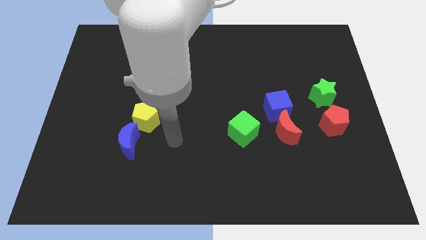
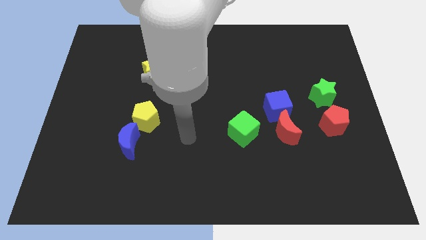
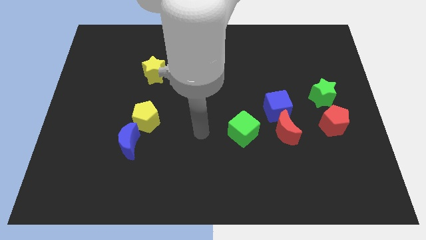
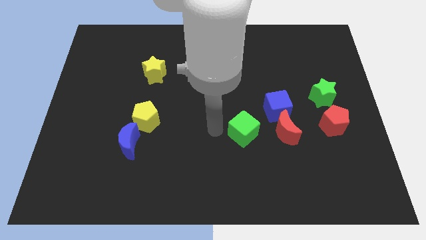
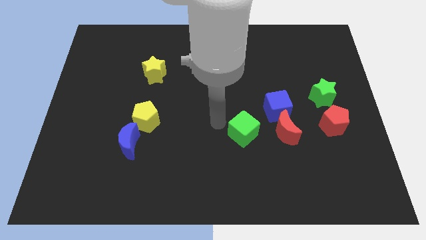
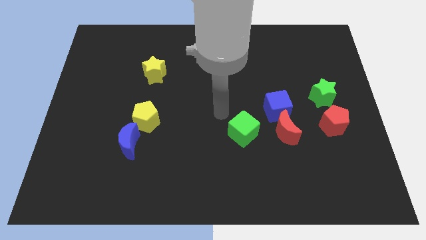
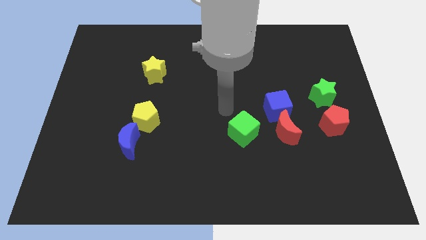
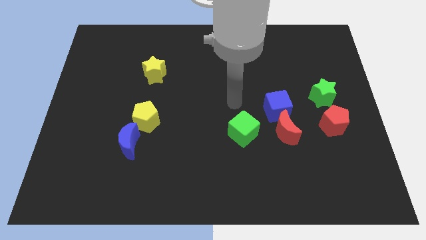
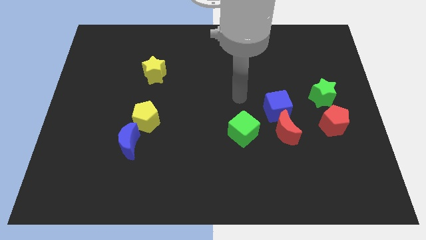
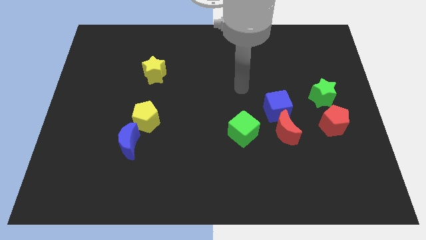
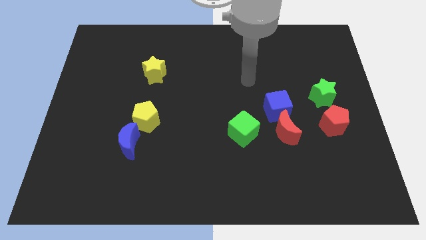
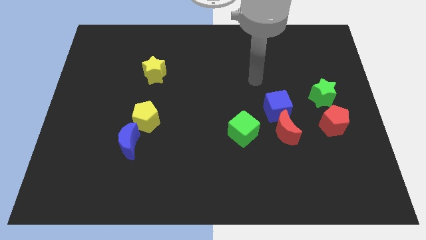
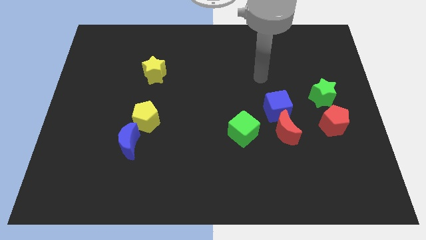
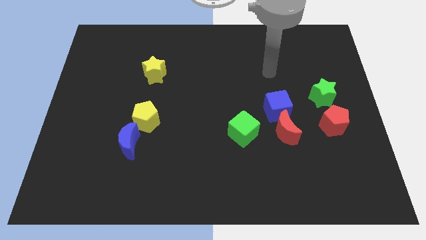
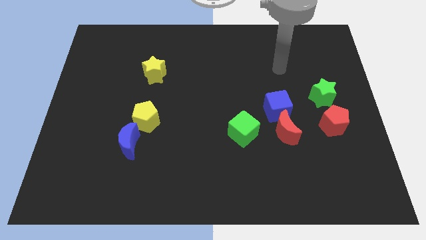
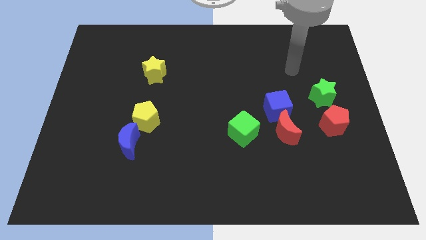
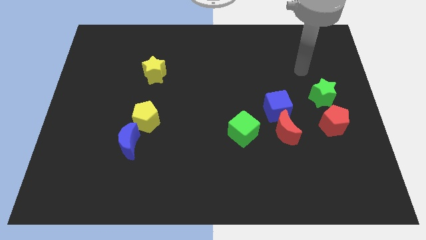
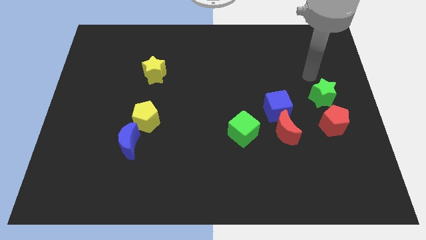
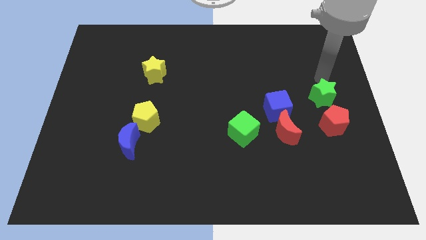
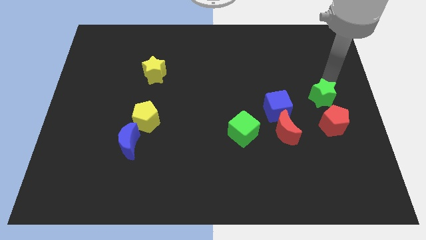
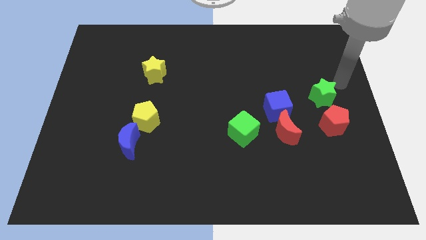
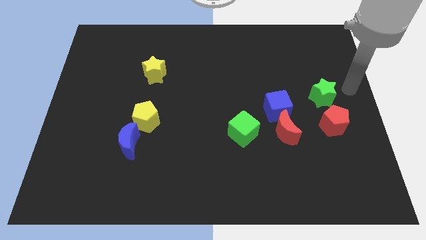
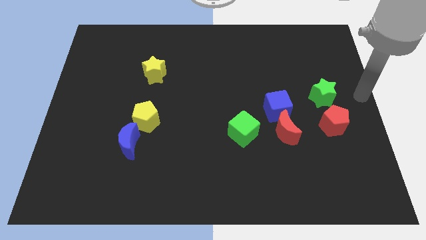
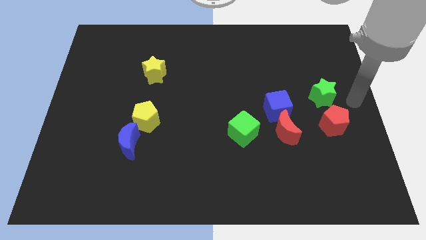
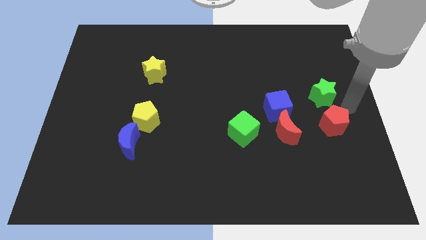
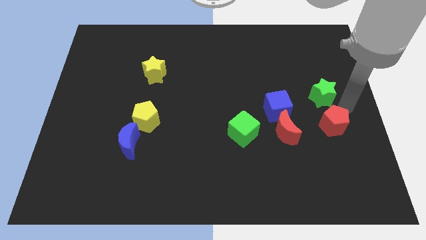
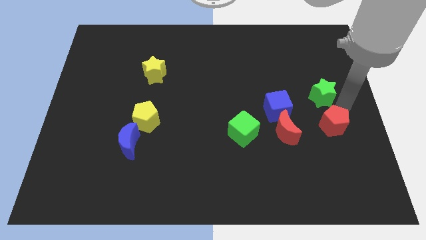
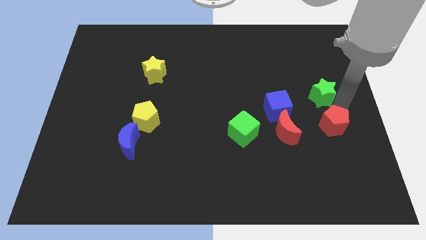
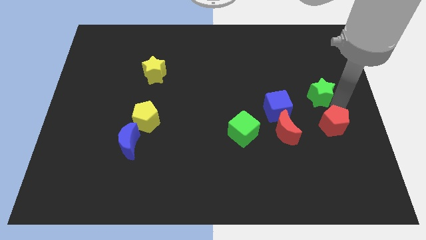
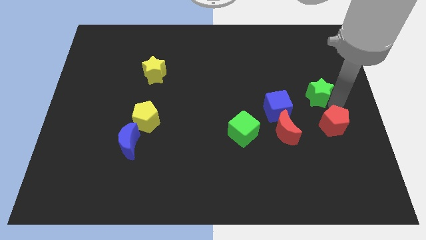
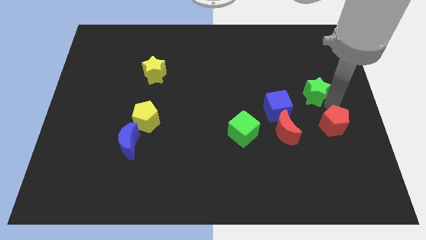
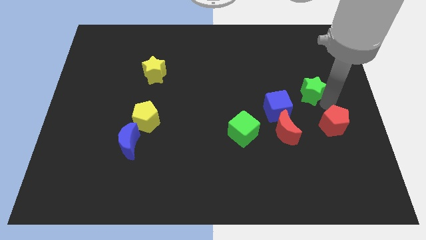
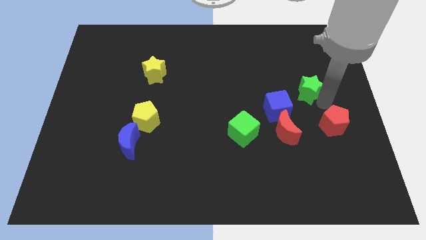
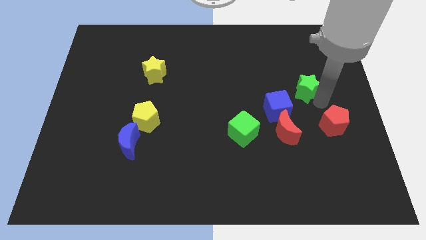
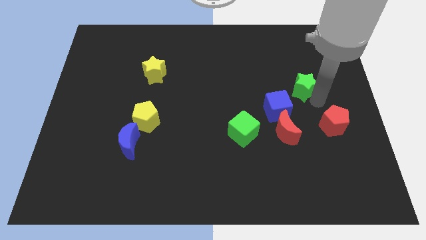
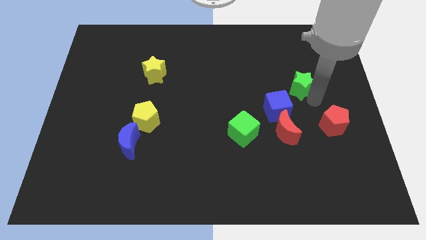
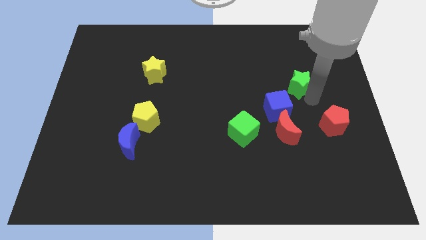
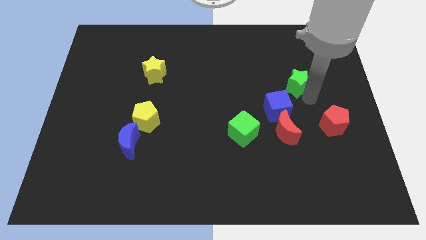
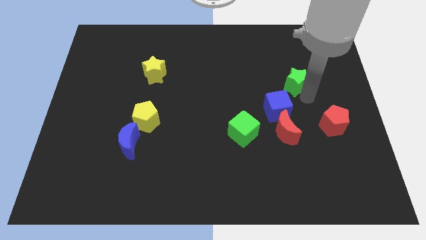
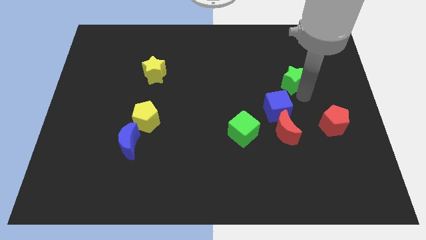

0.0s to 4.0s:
slightly push the green star upwards and to the left

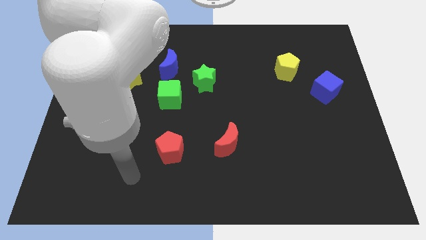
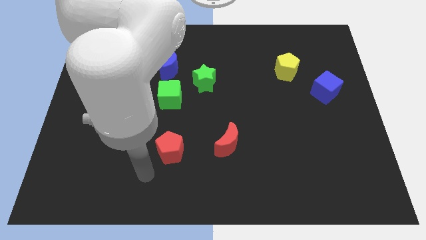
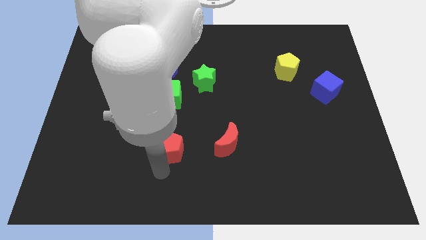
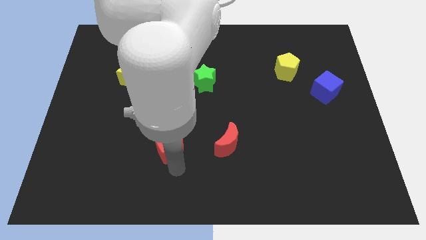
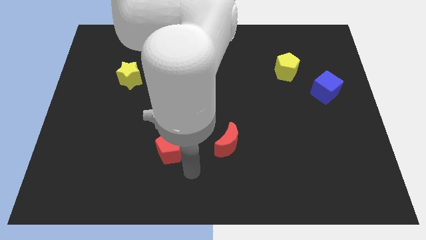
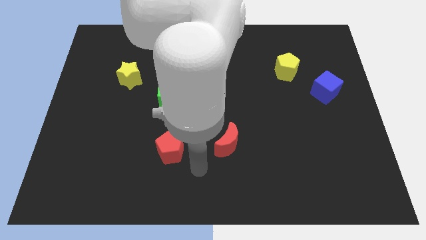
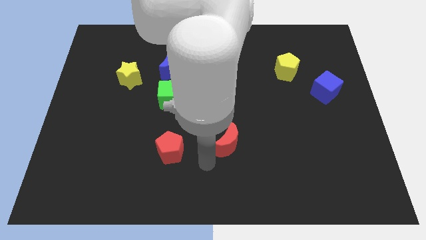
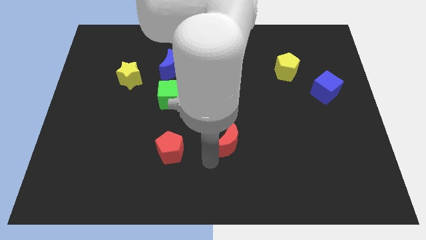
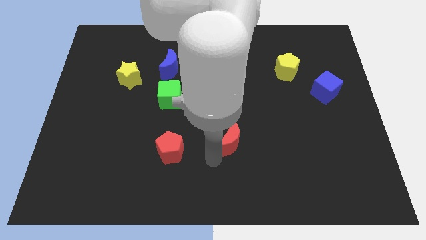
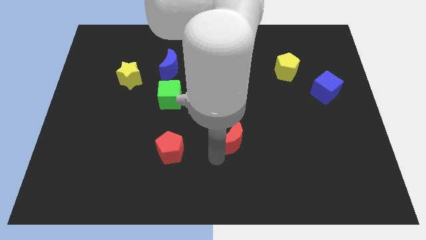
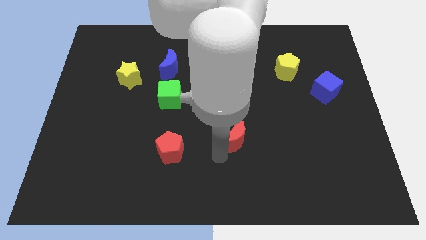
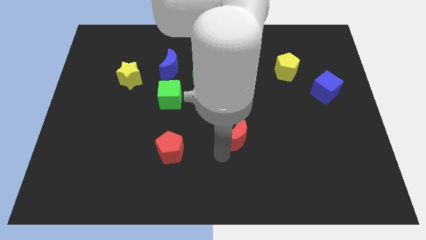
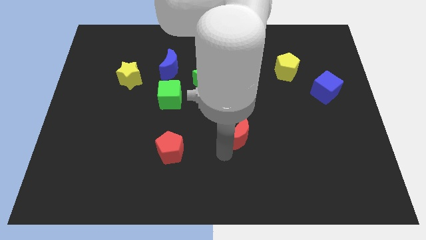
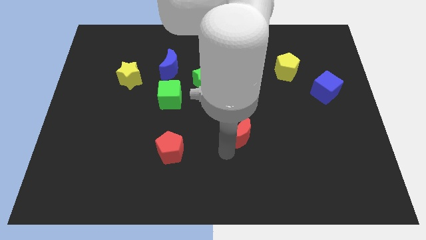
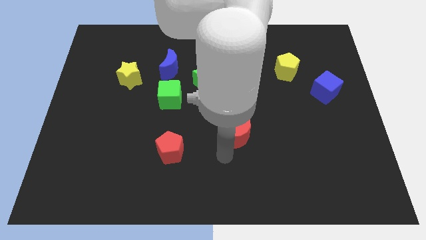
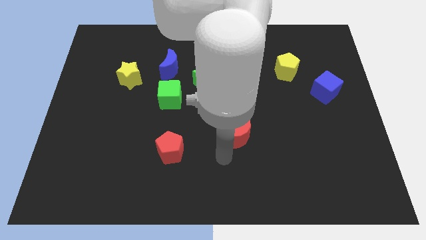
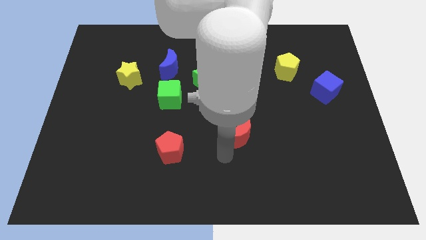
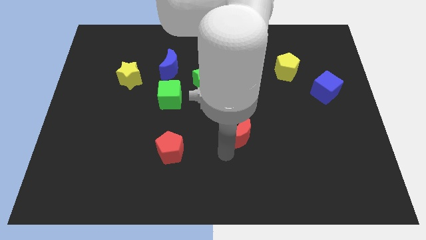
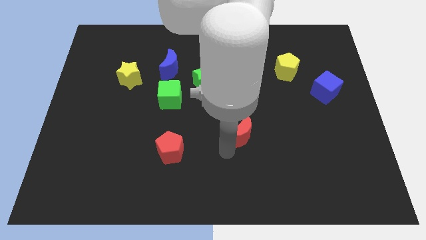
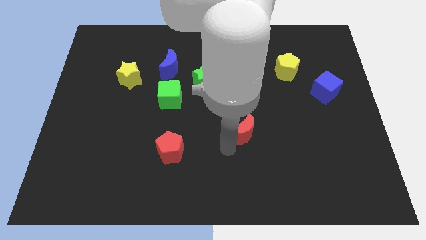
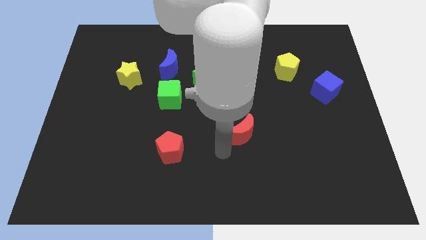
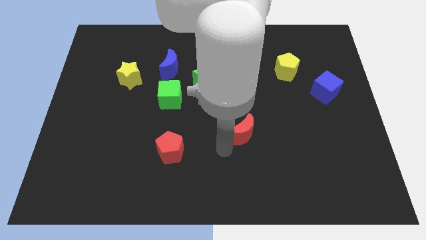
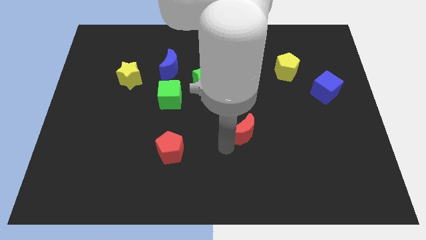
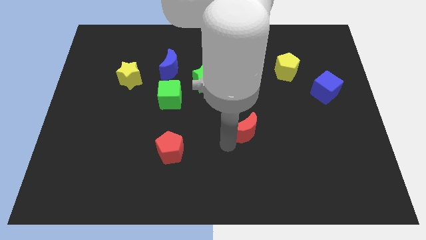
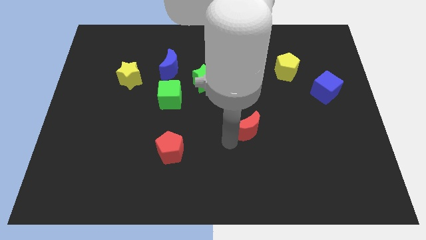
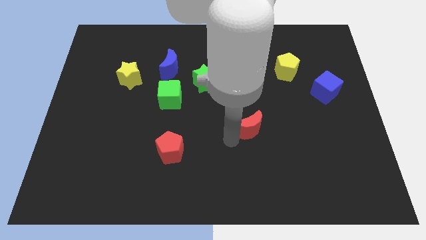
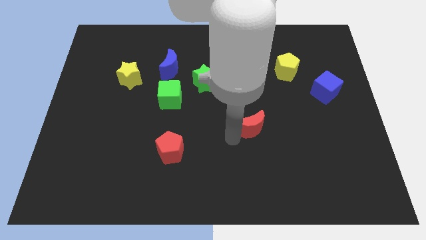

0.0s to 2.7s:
slightly slide the red moon upwards and right

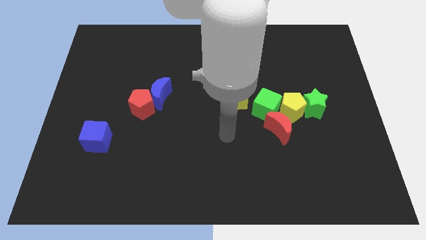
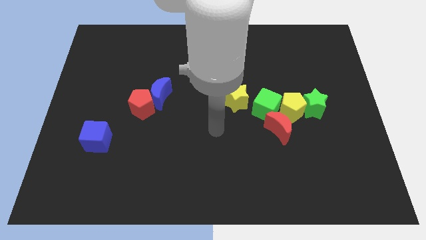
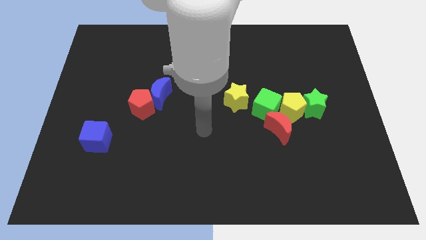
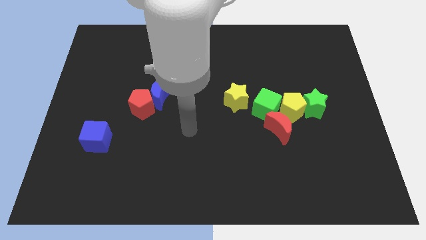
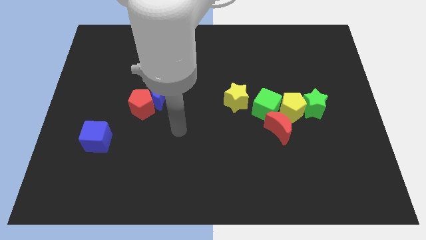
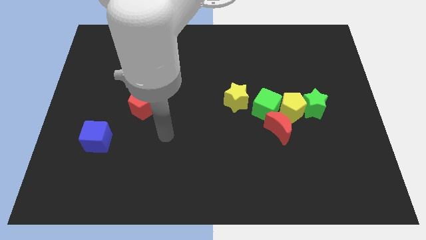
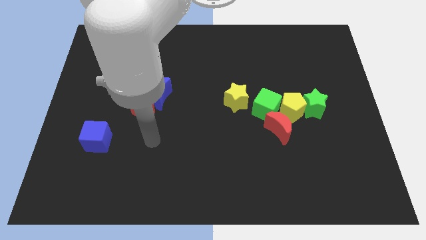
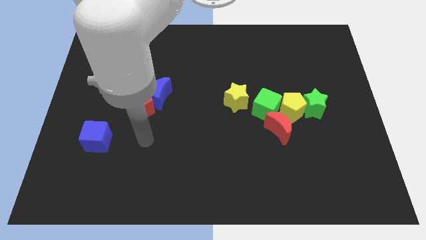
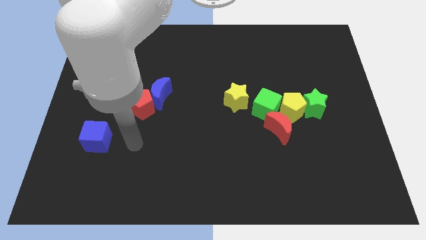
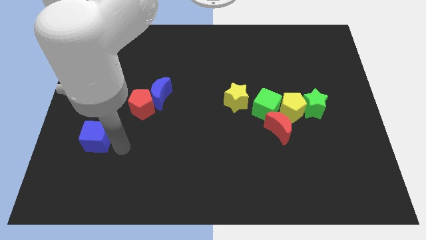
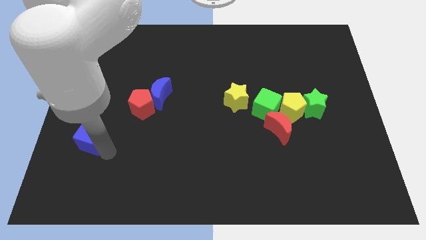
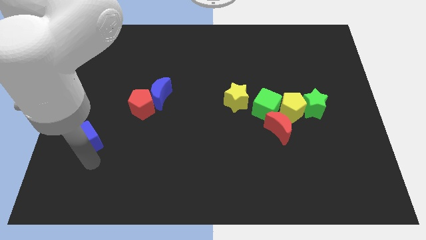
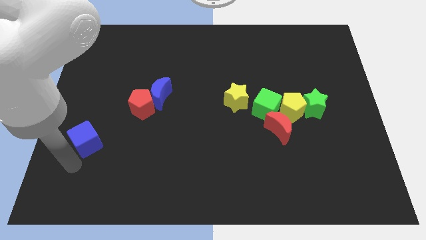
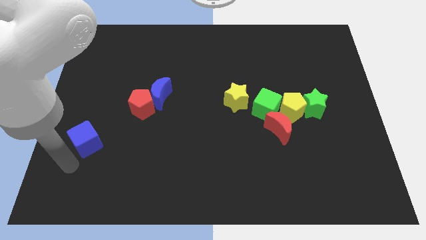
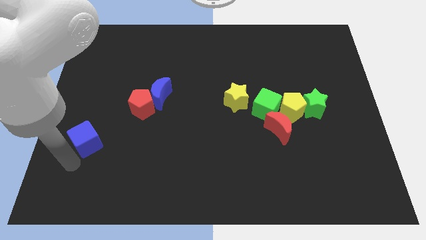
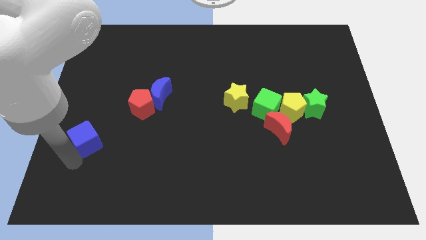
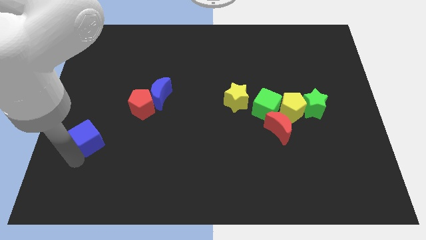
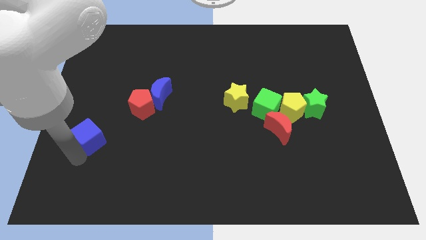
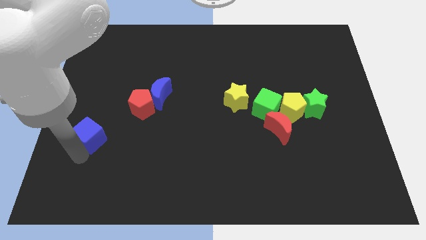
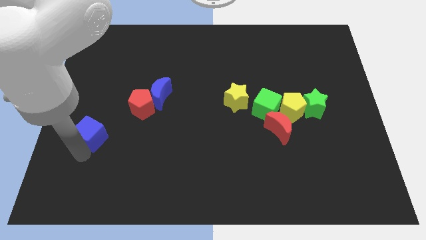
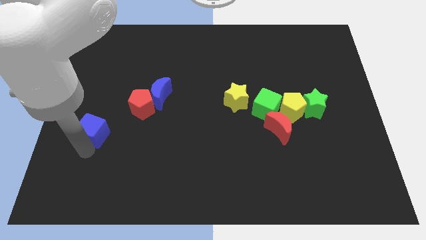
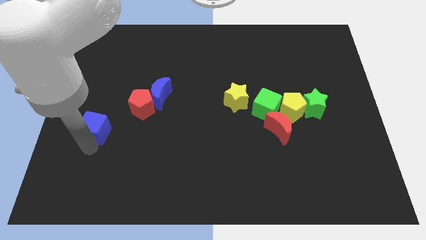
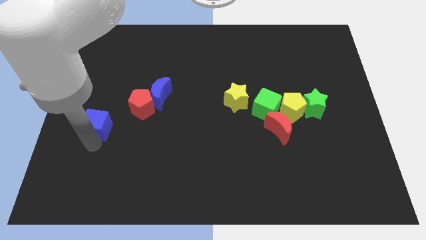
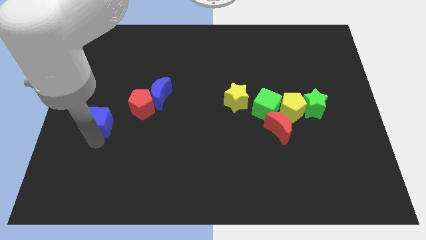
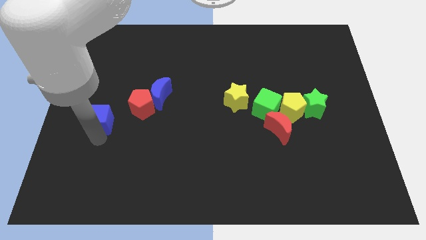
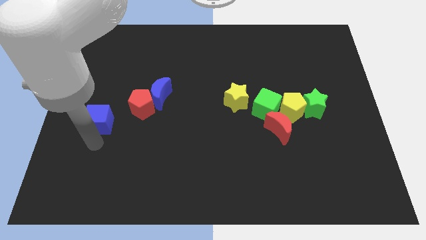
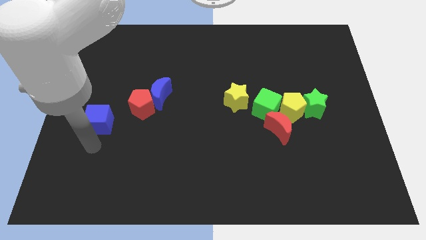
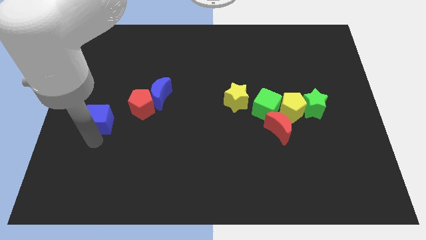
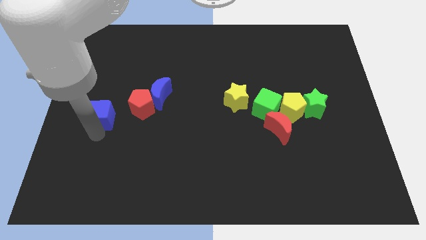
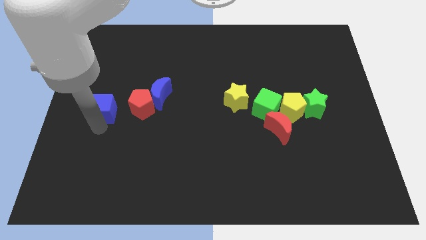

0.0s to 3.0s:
move the blue cube upwards a little
